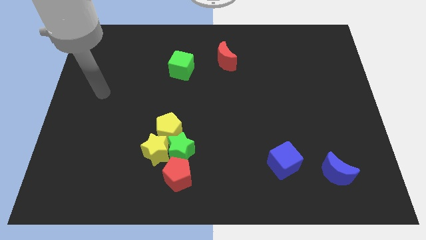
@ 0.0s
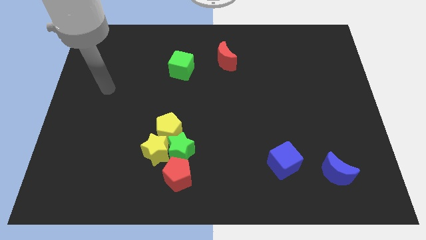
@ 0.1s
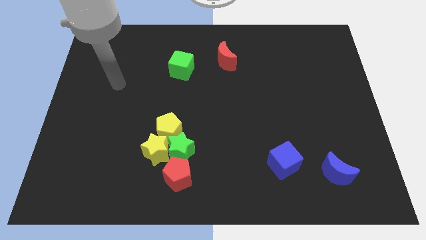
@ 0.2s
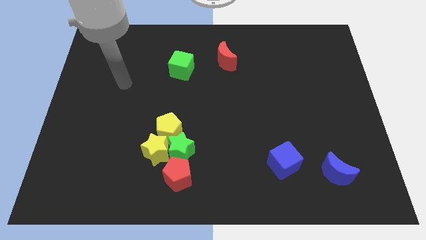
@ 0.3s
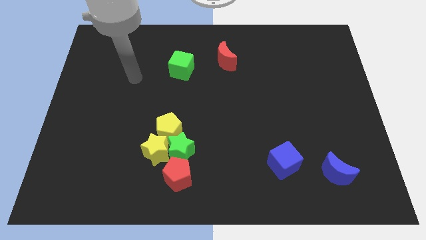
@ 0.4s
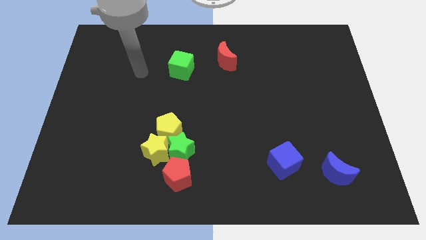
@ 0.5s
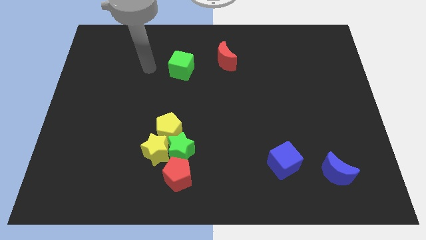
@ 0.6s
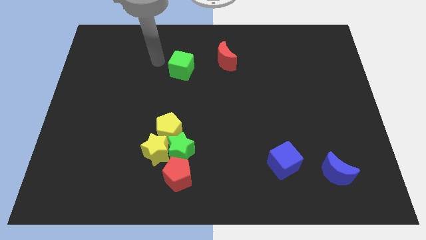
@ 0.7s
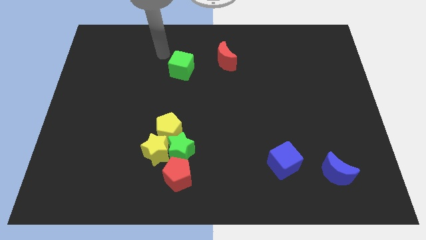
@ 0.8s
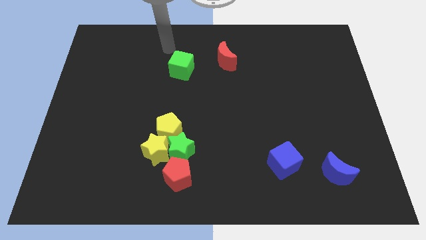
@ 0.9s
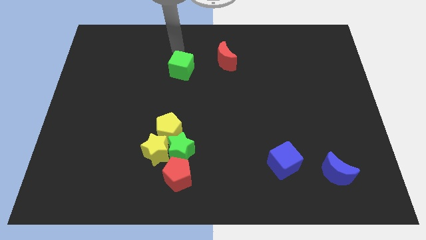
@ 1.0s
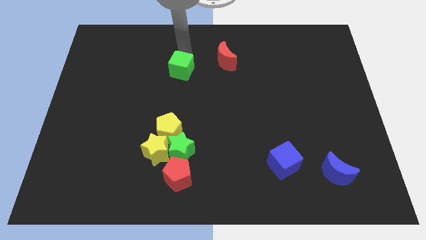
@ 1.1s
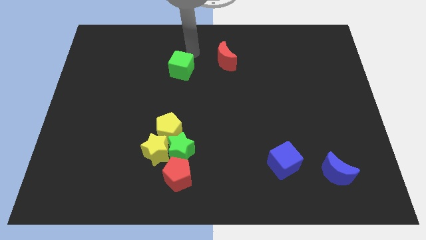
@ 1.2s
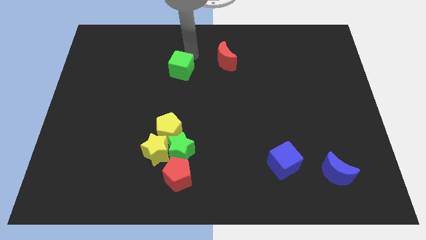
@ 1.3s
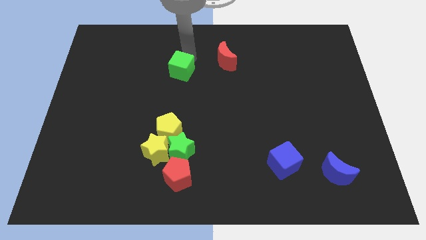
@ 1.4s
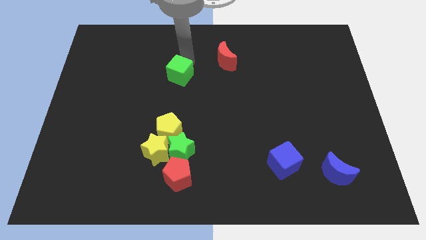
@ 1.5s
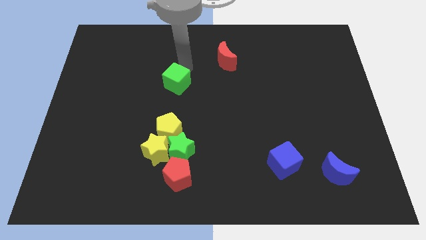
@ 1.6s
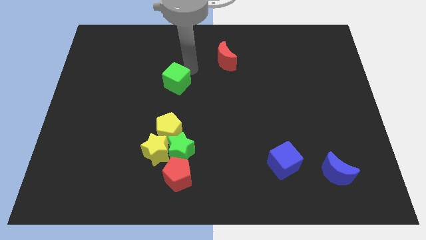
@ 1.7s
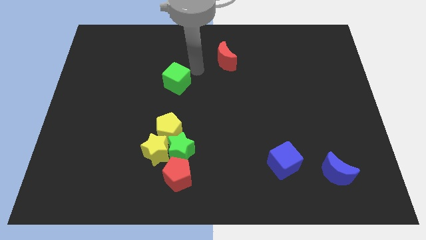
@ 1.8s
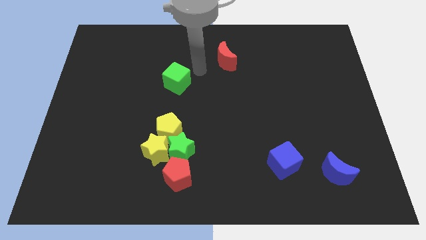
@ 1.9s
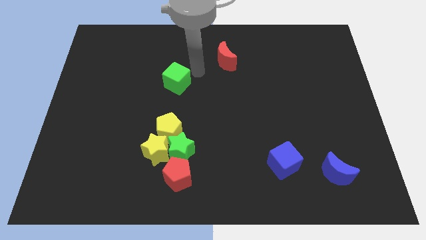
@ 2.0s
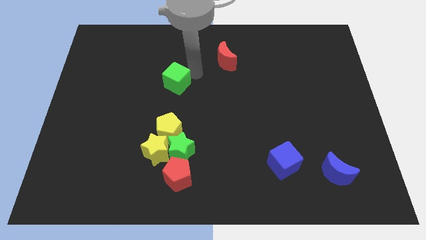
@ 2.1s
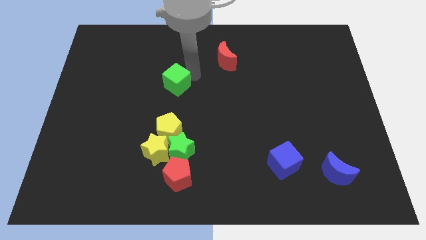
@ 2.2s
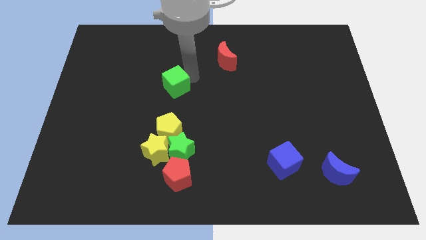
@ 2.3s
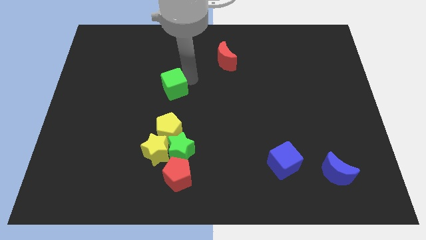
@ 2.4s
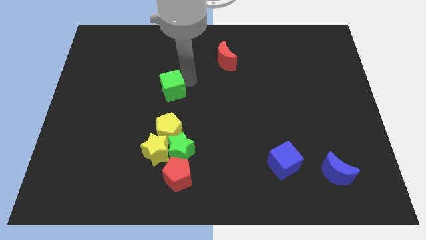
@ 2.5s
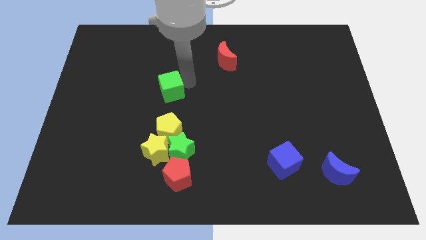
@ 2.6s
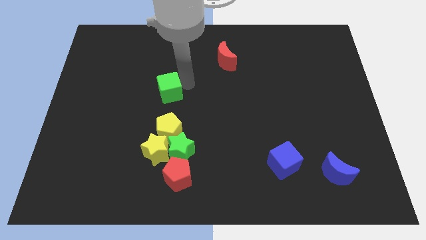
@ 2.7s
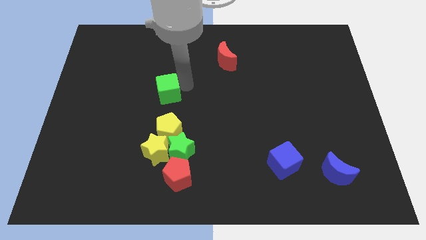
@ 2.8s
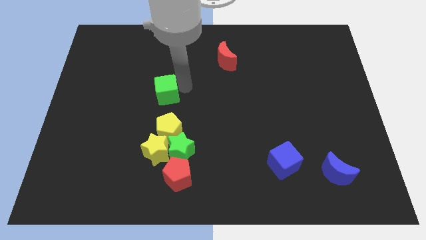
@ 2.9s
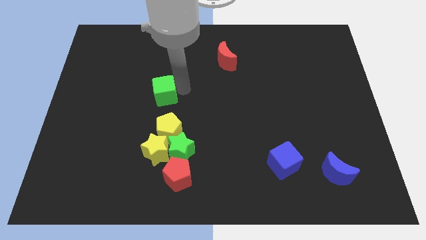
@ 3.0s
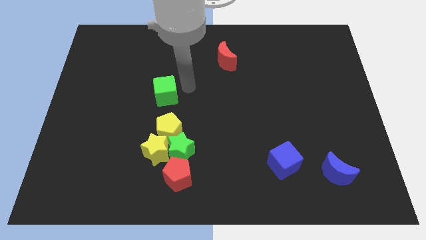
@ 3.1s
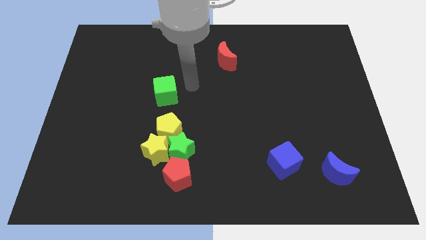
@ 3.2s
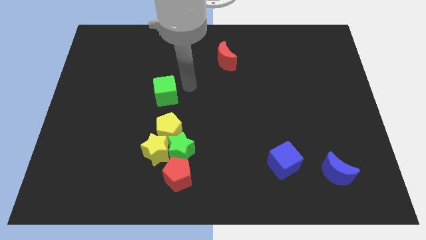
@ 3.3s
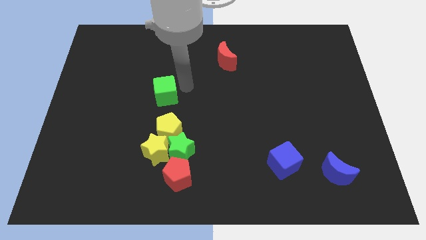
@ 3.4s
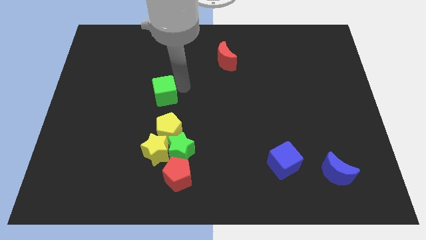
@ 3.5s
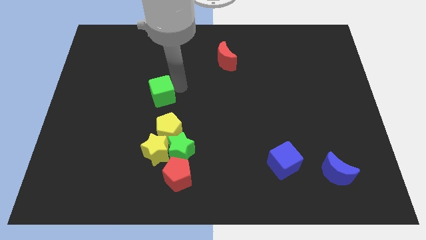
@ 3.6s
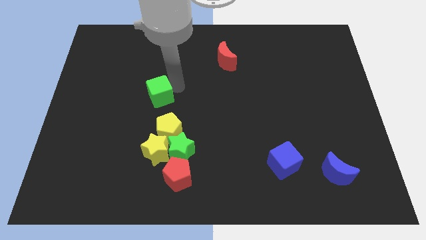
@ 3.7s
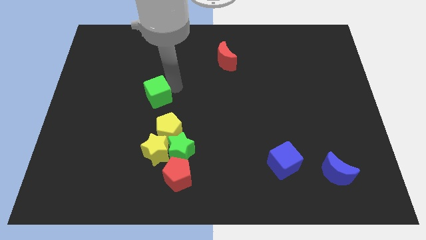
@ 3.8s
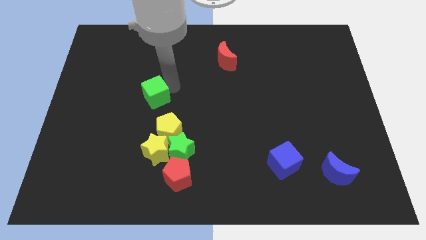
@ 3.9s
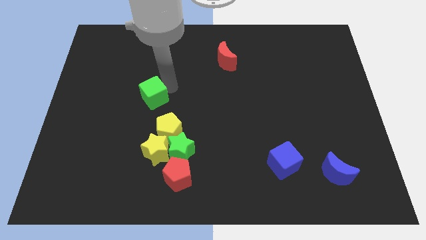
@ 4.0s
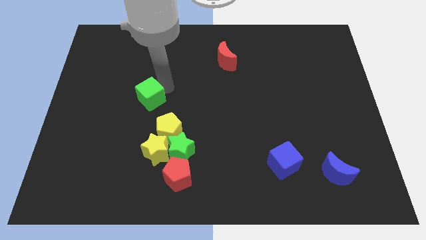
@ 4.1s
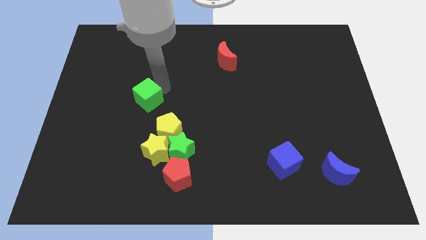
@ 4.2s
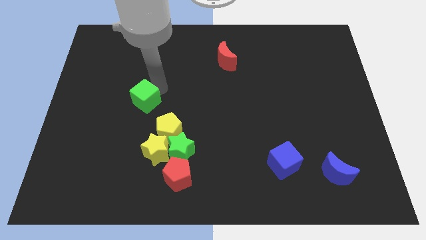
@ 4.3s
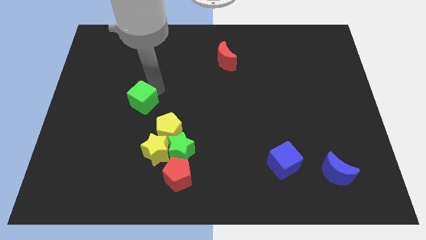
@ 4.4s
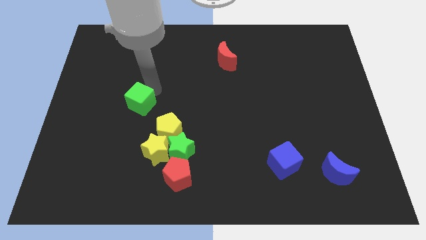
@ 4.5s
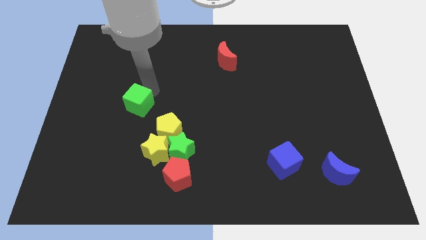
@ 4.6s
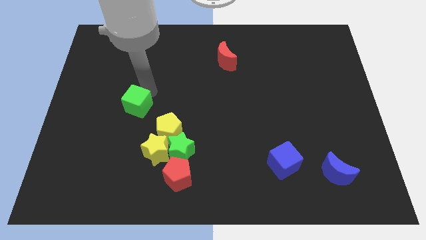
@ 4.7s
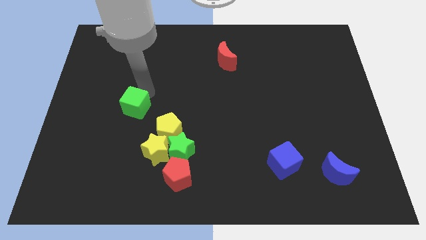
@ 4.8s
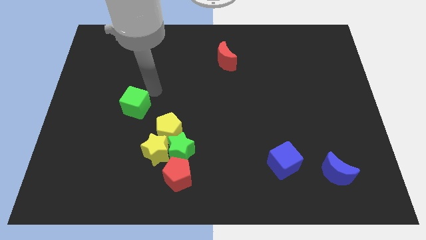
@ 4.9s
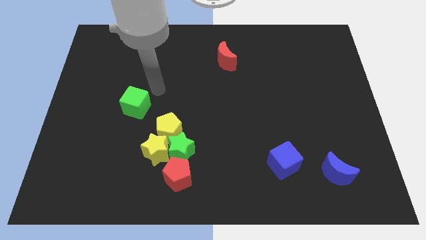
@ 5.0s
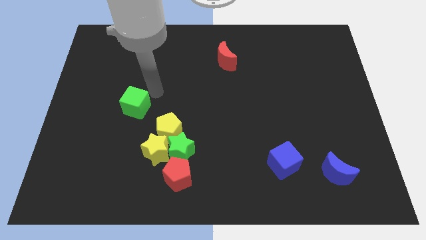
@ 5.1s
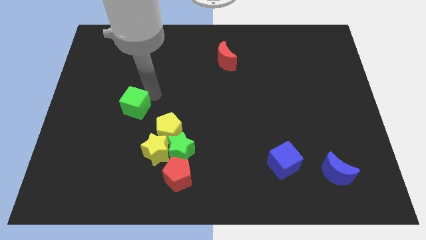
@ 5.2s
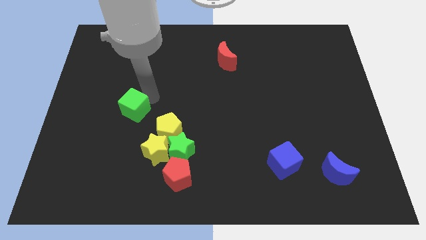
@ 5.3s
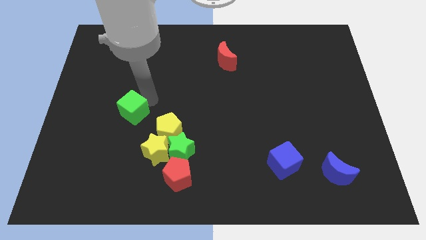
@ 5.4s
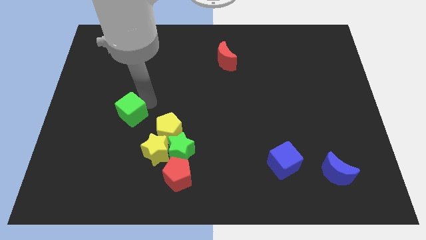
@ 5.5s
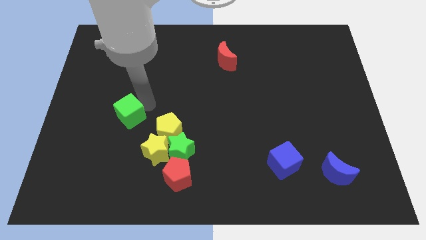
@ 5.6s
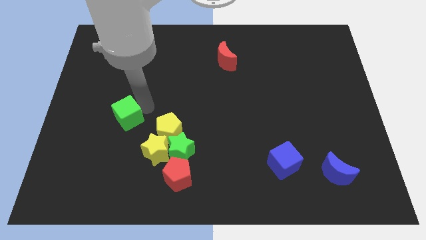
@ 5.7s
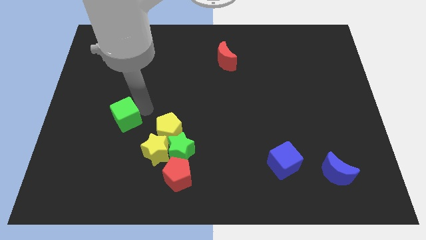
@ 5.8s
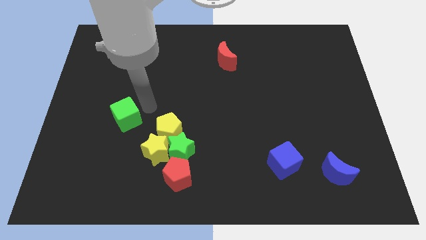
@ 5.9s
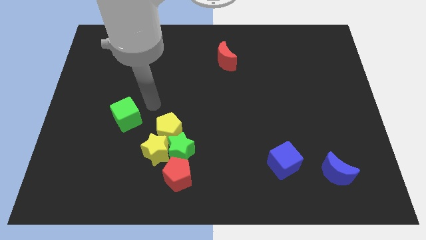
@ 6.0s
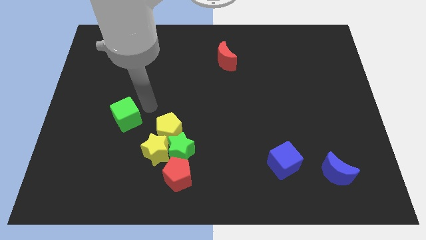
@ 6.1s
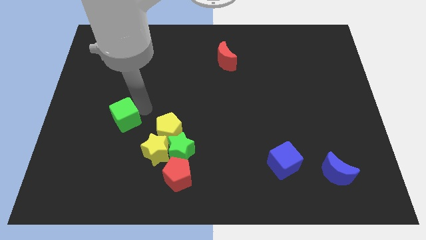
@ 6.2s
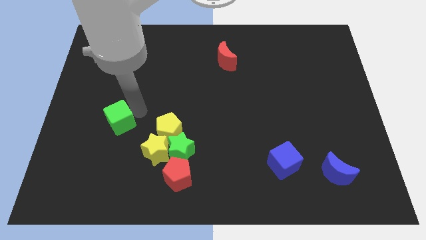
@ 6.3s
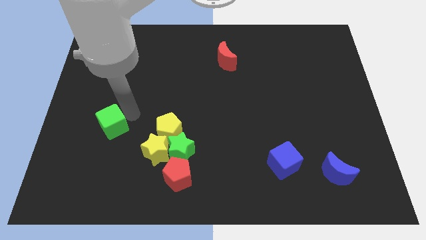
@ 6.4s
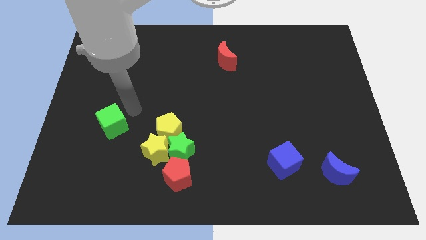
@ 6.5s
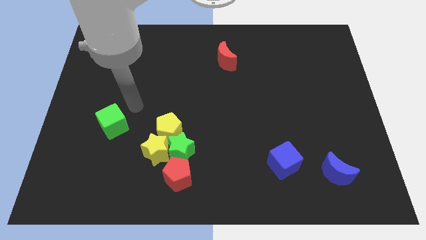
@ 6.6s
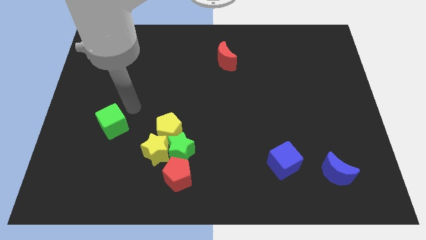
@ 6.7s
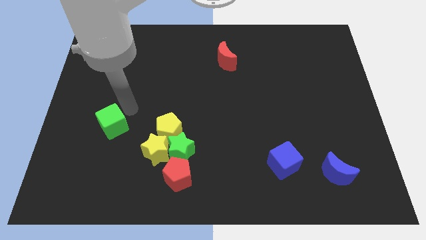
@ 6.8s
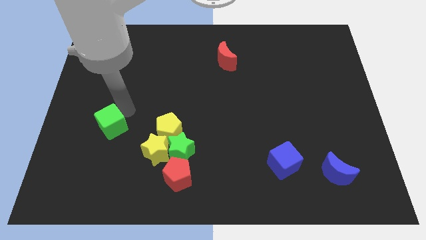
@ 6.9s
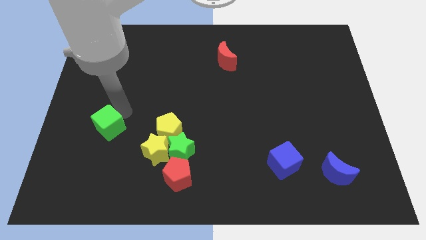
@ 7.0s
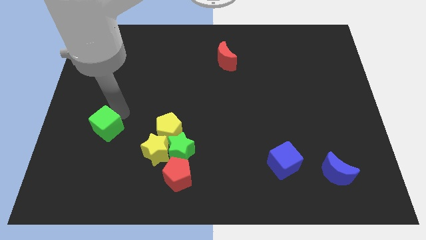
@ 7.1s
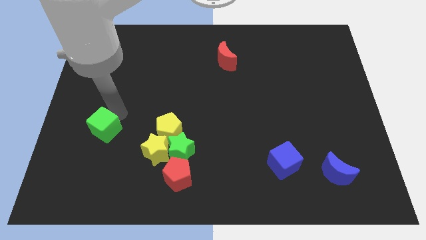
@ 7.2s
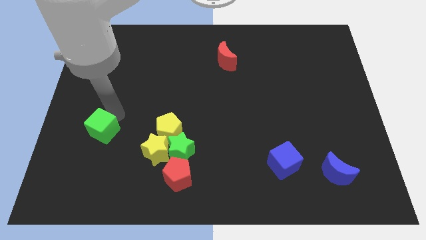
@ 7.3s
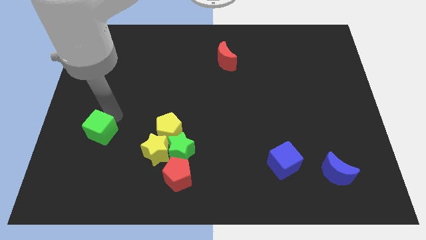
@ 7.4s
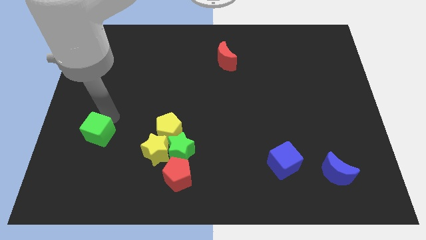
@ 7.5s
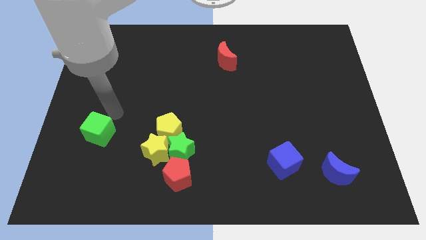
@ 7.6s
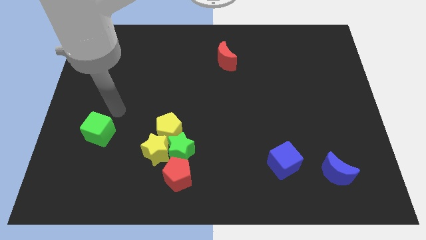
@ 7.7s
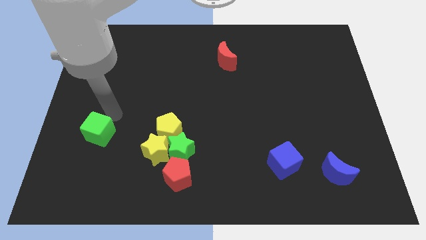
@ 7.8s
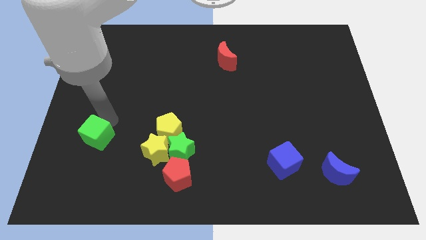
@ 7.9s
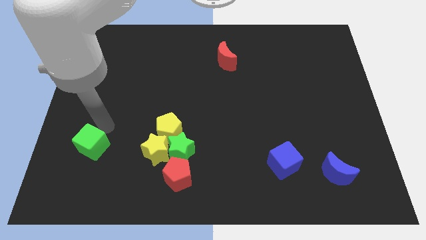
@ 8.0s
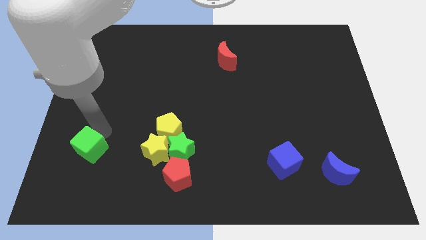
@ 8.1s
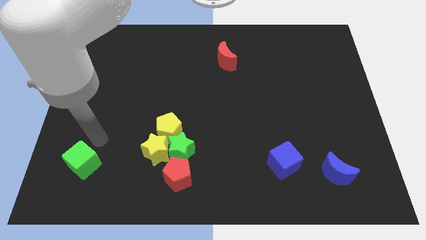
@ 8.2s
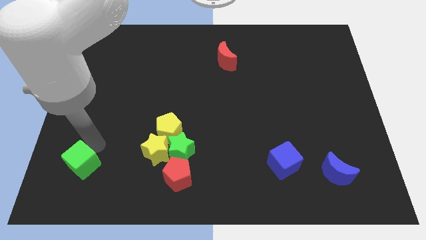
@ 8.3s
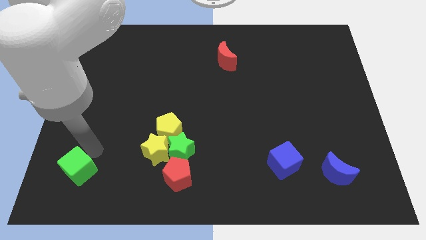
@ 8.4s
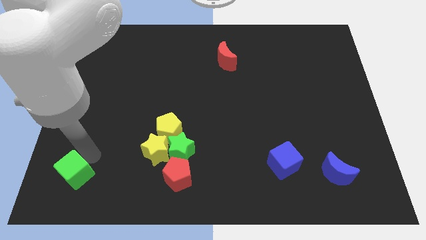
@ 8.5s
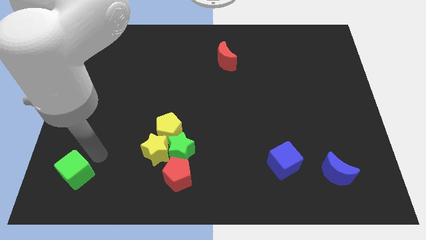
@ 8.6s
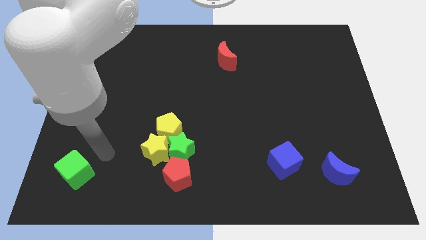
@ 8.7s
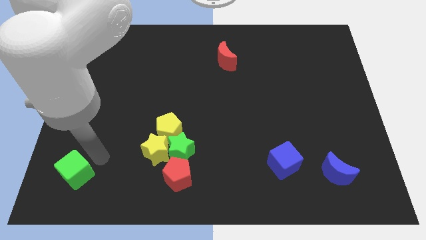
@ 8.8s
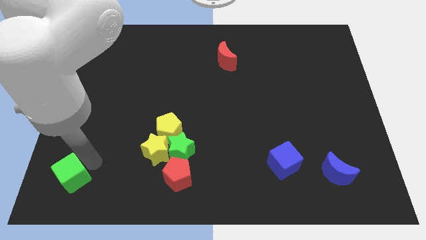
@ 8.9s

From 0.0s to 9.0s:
slide the green cube to the bottom left of the board
